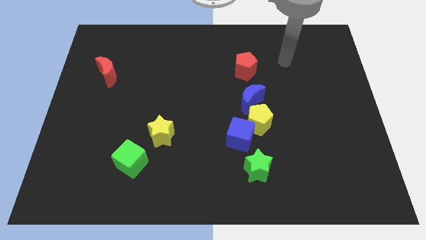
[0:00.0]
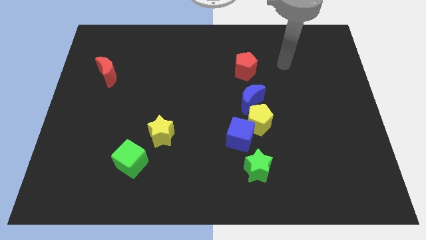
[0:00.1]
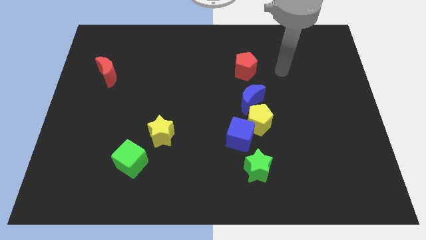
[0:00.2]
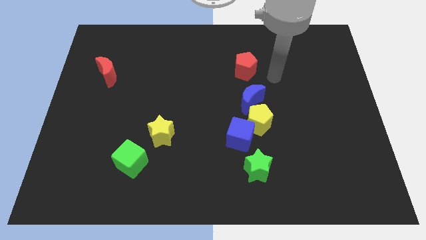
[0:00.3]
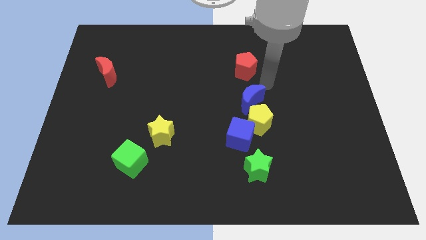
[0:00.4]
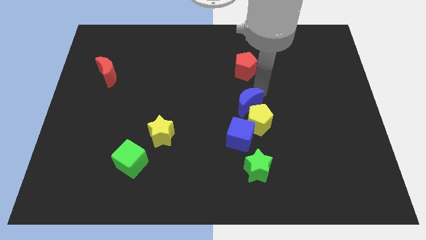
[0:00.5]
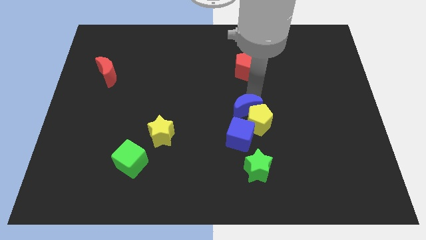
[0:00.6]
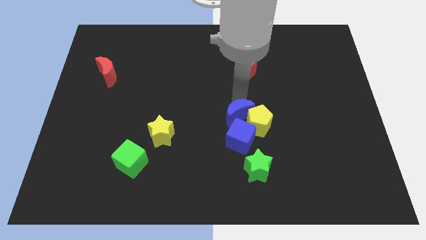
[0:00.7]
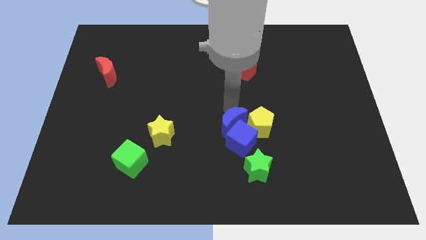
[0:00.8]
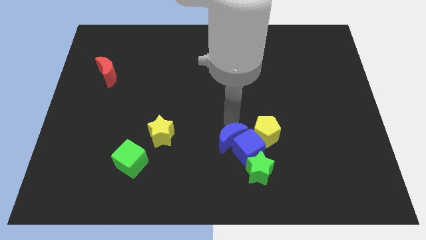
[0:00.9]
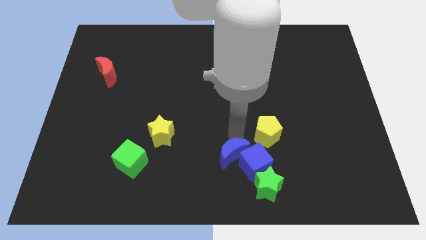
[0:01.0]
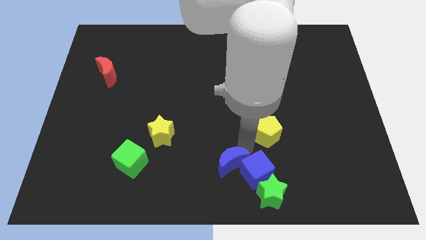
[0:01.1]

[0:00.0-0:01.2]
pull the yellow pentagon apart from the blue cube and blue moon

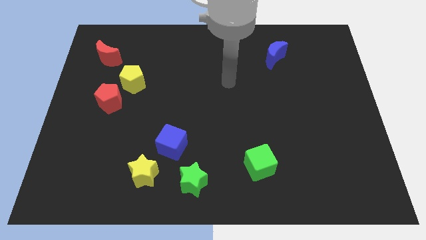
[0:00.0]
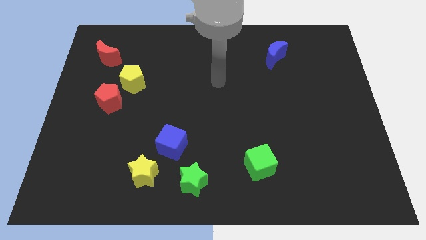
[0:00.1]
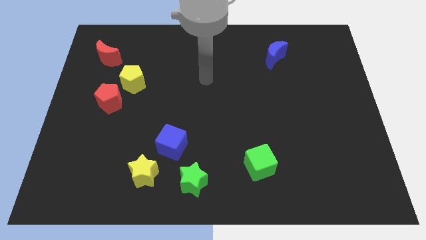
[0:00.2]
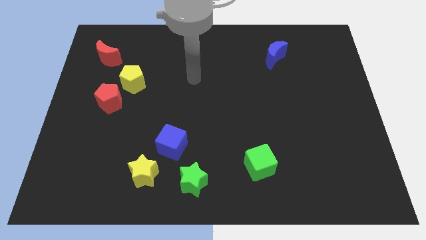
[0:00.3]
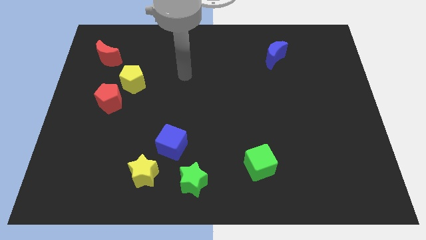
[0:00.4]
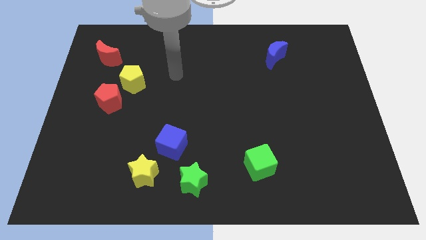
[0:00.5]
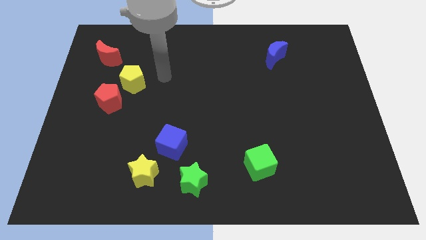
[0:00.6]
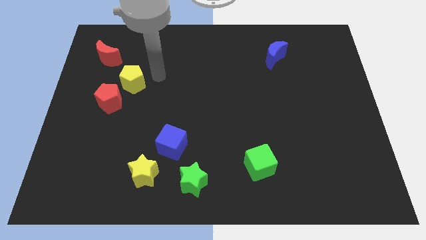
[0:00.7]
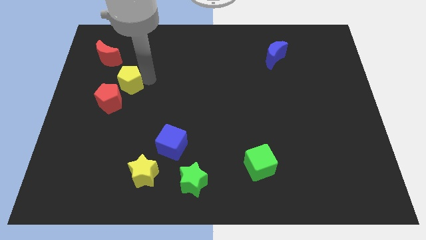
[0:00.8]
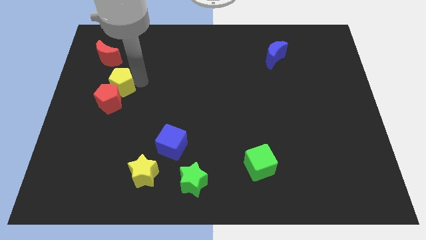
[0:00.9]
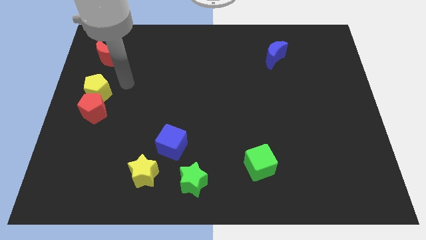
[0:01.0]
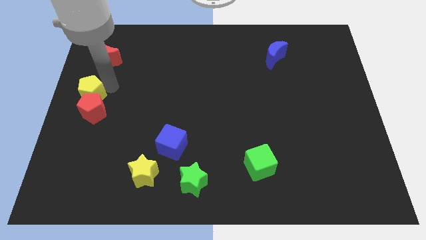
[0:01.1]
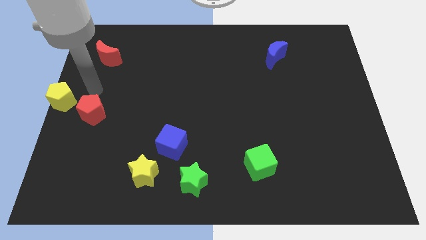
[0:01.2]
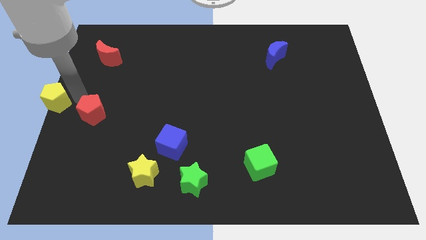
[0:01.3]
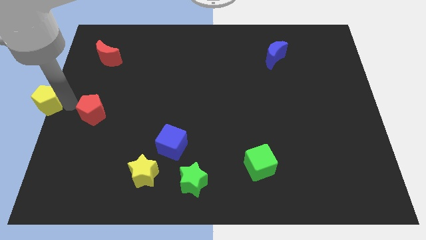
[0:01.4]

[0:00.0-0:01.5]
pull the red pentagon apart from the yellow pentagon

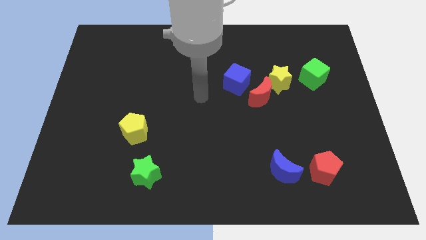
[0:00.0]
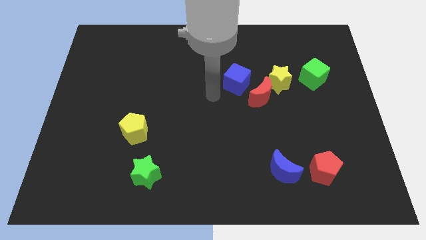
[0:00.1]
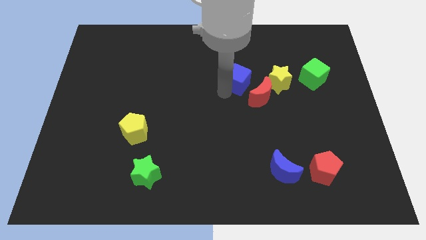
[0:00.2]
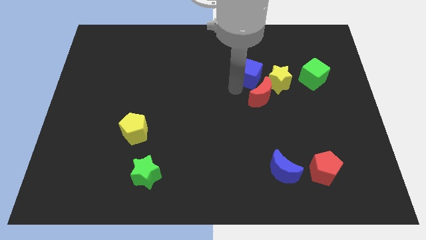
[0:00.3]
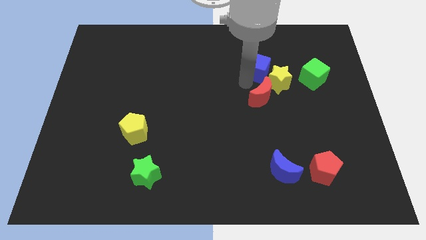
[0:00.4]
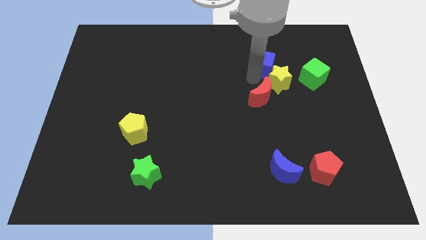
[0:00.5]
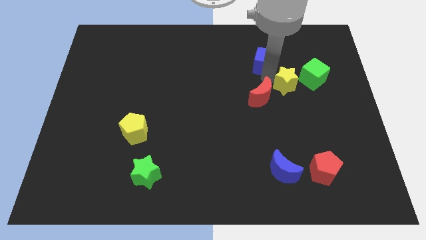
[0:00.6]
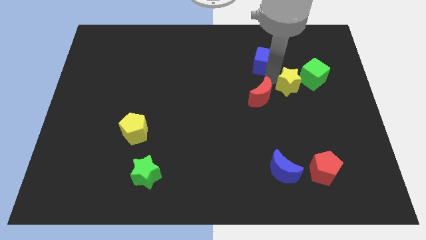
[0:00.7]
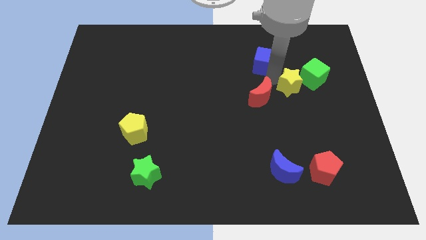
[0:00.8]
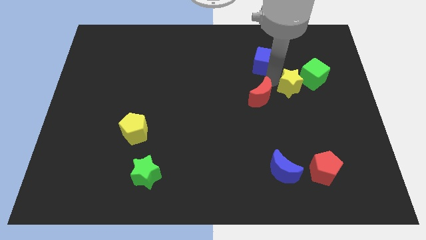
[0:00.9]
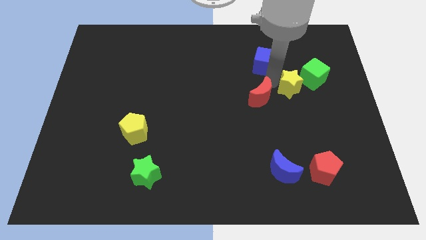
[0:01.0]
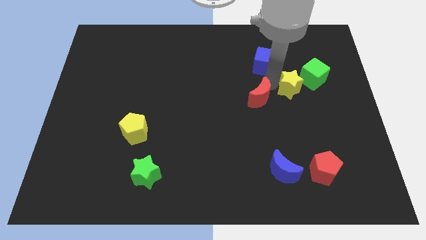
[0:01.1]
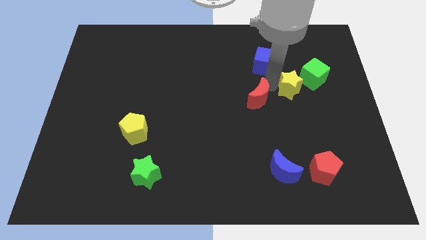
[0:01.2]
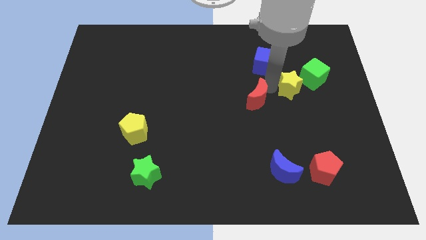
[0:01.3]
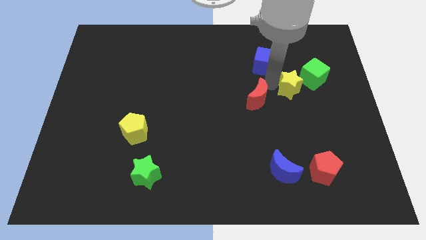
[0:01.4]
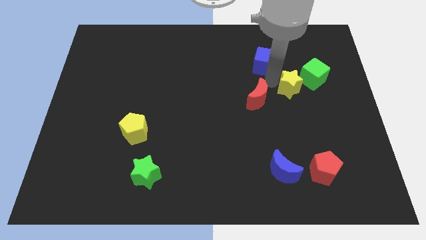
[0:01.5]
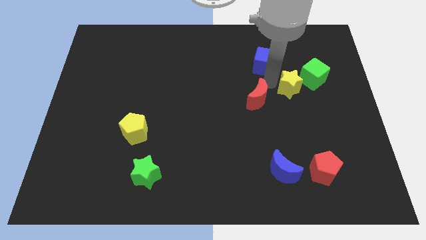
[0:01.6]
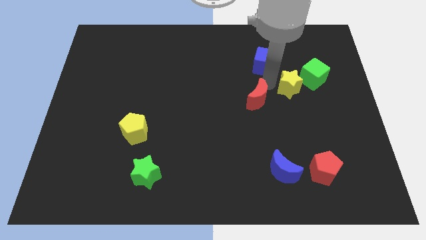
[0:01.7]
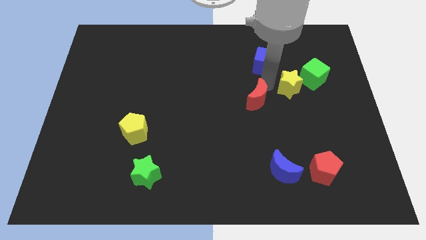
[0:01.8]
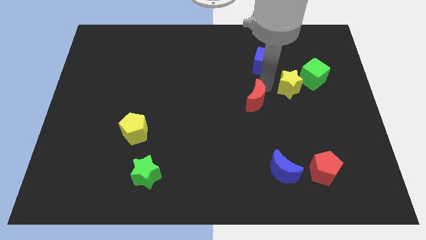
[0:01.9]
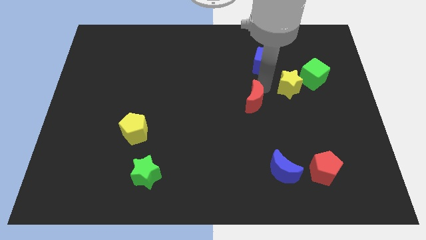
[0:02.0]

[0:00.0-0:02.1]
move the red moon away from the yellow star and blue cube

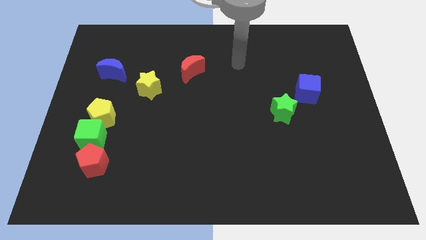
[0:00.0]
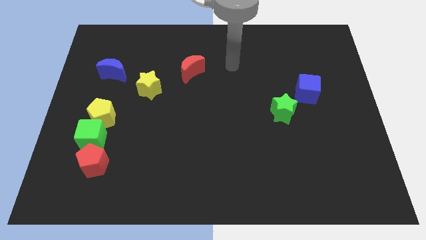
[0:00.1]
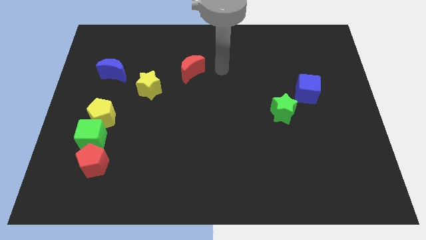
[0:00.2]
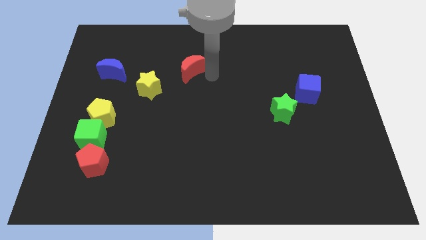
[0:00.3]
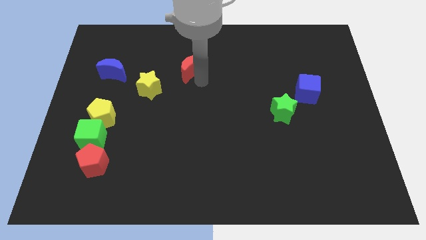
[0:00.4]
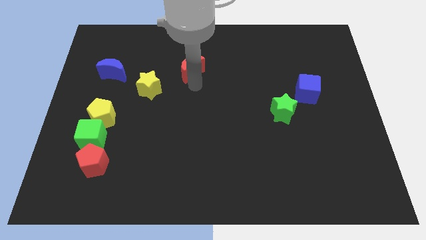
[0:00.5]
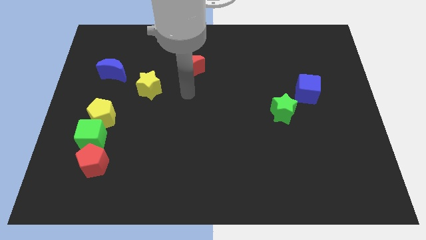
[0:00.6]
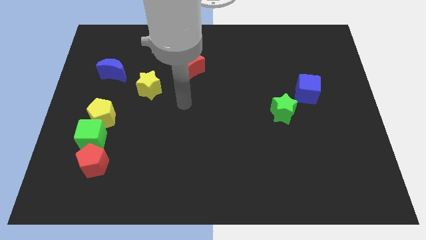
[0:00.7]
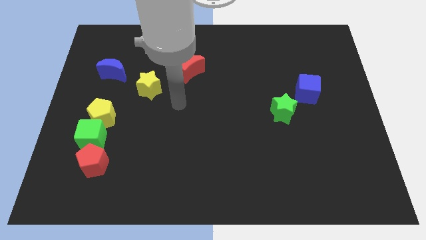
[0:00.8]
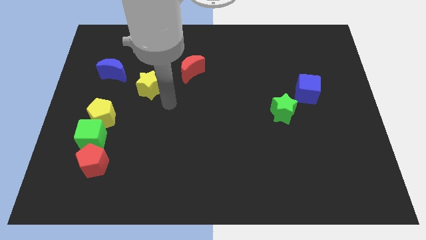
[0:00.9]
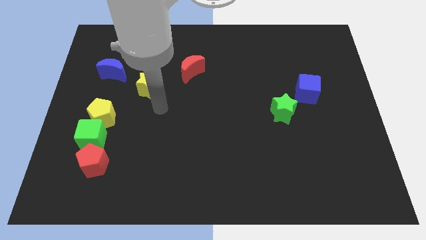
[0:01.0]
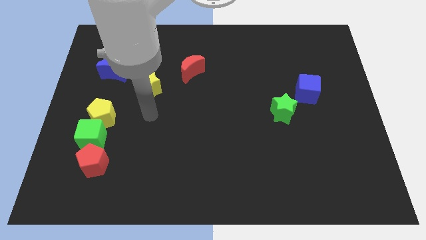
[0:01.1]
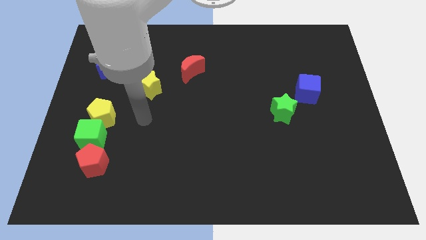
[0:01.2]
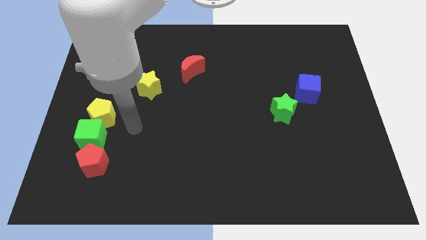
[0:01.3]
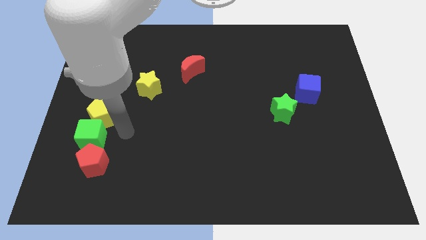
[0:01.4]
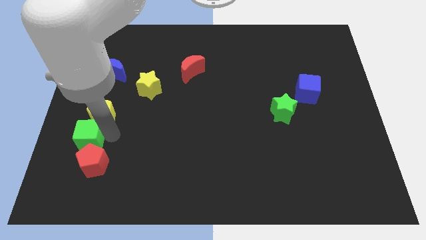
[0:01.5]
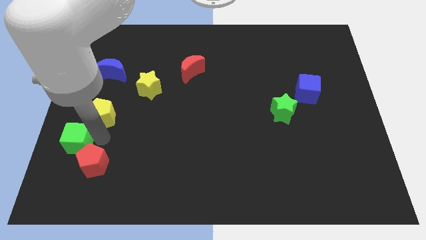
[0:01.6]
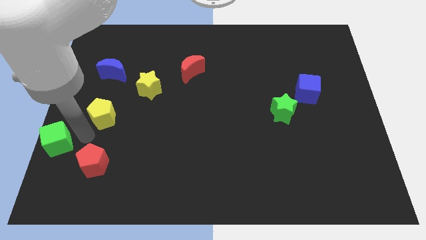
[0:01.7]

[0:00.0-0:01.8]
move the yellow pentagon away from the green cube

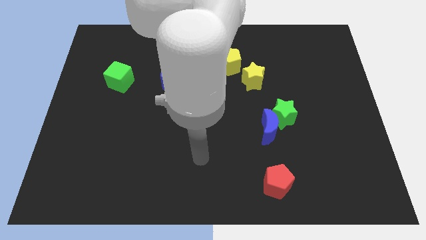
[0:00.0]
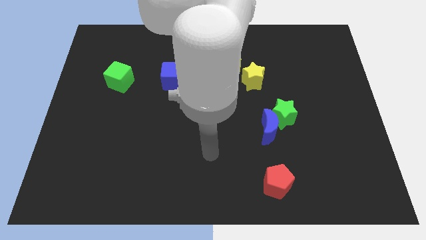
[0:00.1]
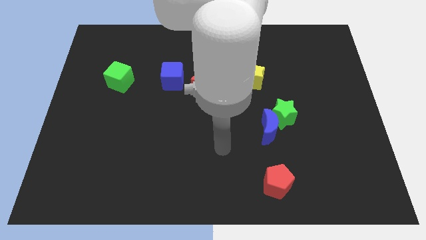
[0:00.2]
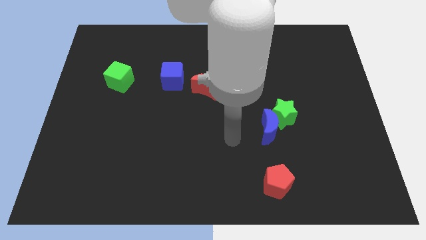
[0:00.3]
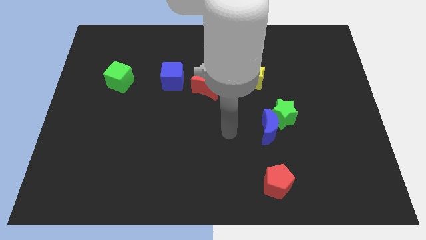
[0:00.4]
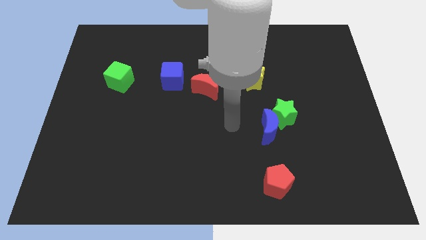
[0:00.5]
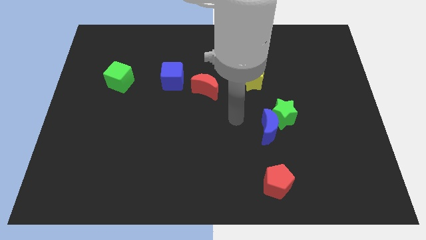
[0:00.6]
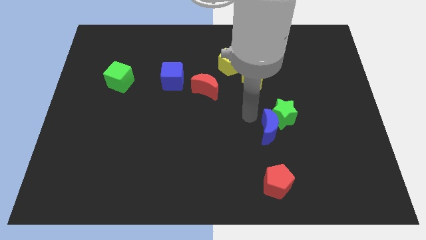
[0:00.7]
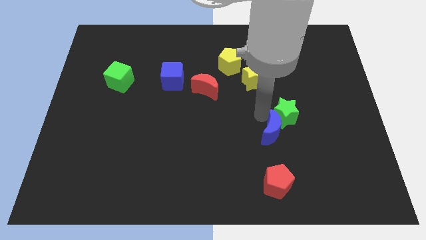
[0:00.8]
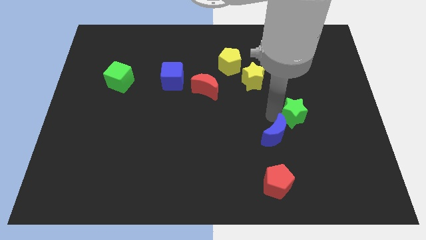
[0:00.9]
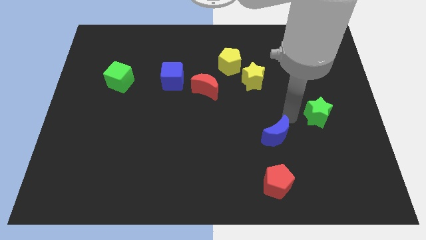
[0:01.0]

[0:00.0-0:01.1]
pull the blue moon apart from the green star

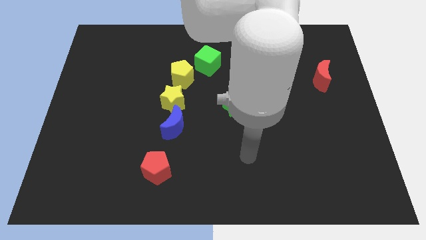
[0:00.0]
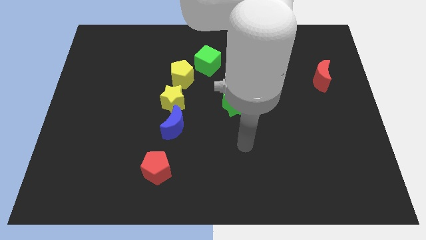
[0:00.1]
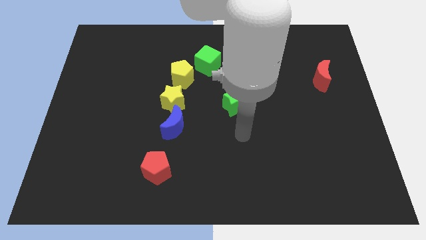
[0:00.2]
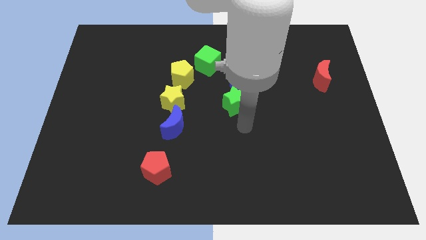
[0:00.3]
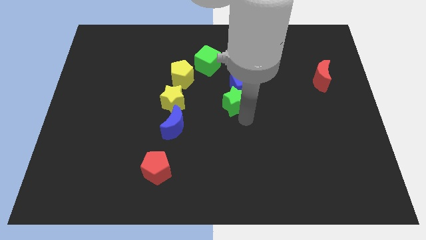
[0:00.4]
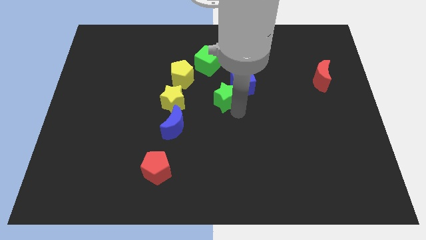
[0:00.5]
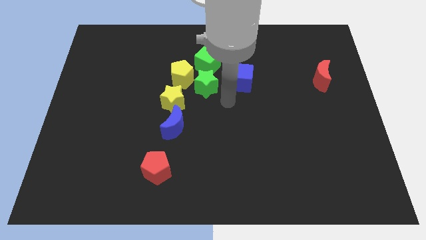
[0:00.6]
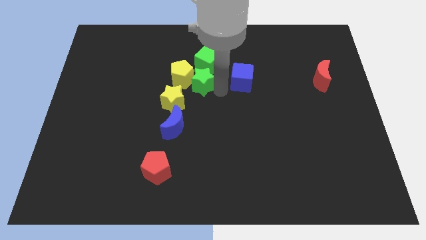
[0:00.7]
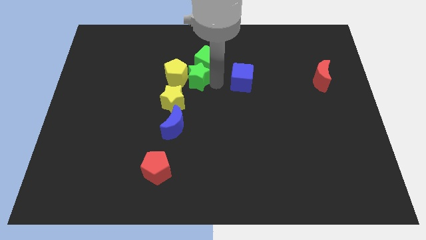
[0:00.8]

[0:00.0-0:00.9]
pull the blue cube apart from the green star

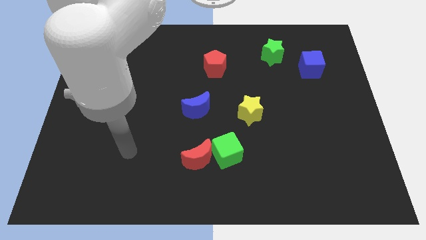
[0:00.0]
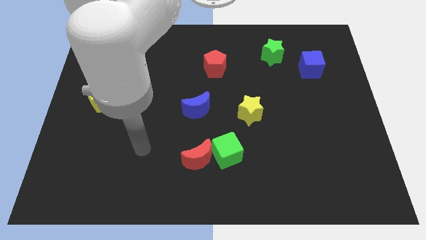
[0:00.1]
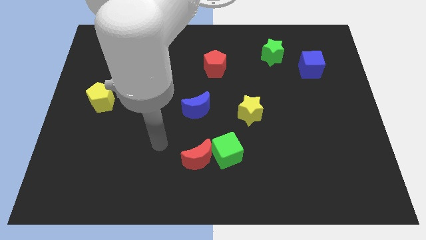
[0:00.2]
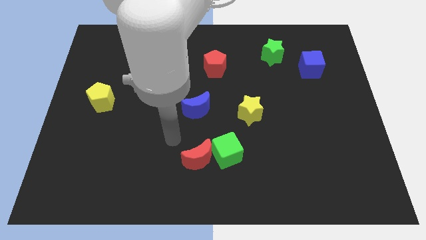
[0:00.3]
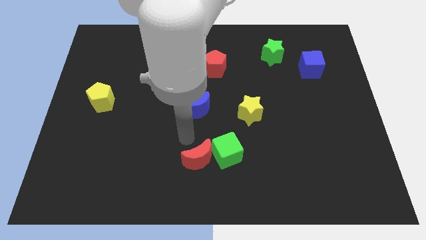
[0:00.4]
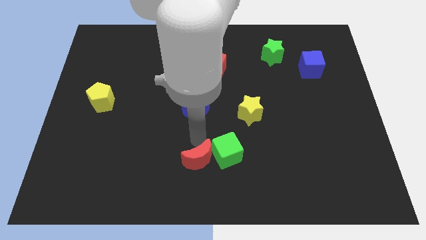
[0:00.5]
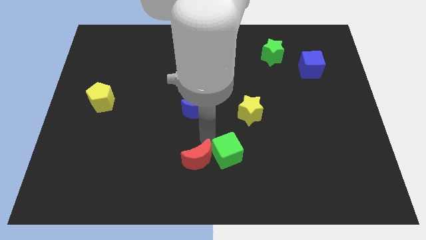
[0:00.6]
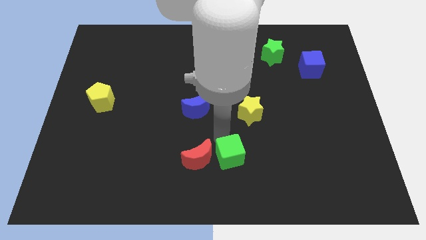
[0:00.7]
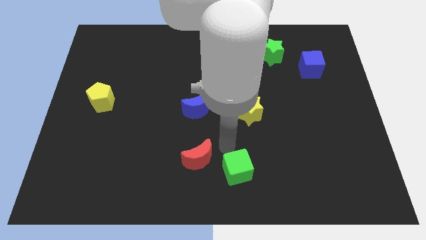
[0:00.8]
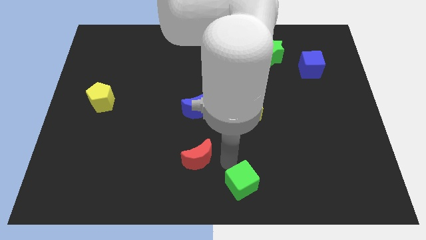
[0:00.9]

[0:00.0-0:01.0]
pull the red moon apart from the green cube
